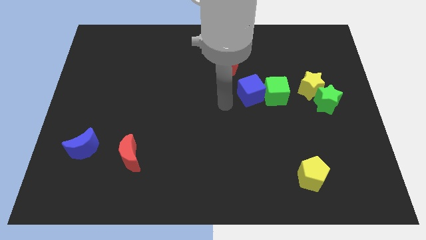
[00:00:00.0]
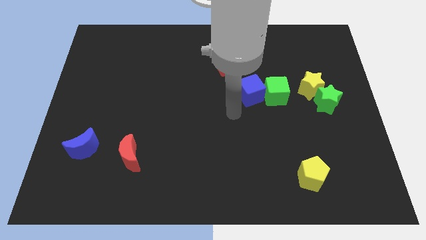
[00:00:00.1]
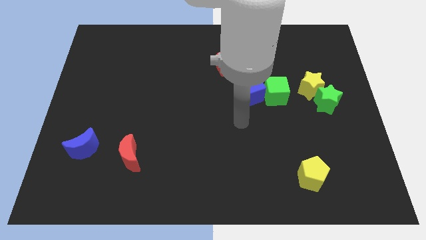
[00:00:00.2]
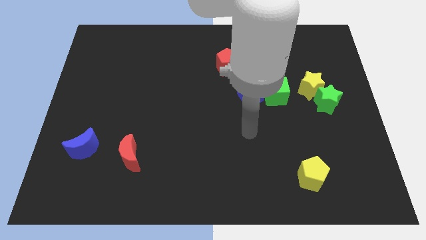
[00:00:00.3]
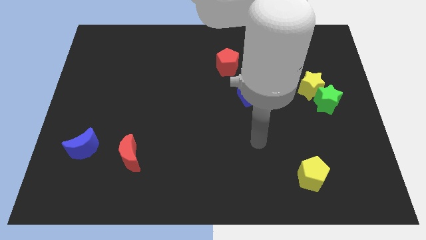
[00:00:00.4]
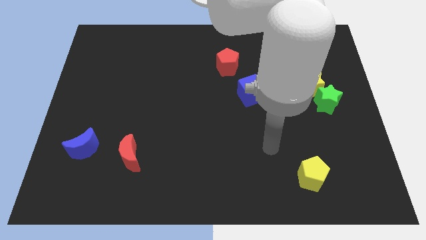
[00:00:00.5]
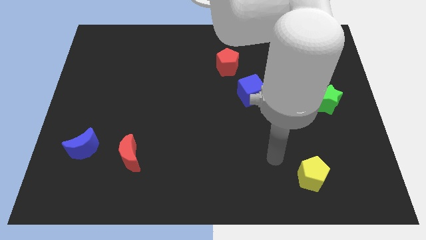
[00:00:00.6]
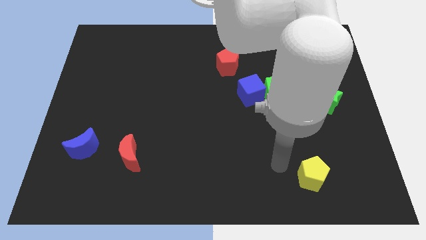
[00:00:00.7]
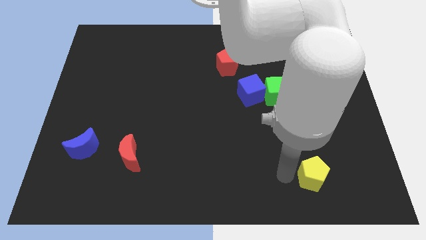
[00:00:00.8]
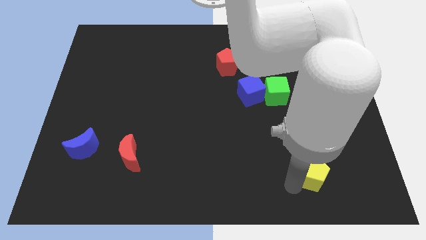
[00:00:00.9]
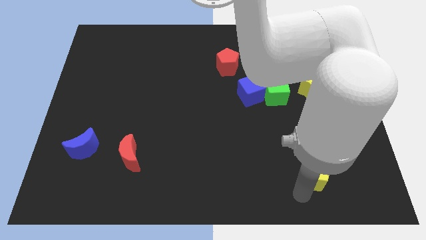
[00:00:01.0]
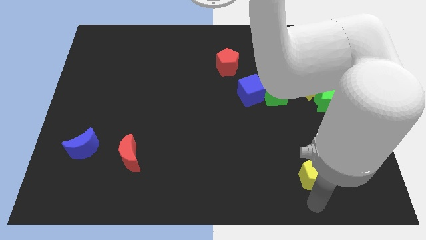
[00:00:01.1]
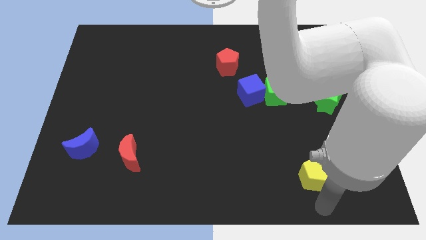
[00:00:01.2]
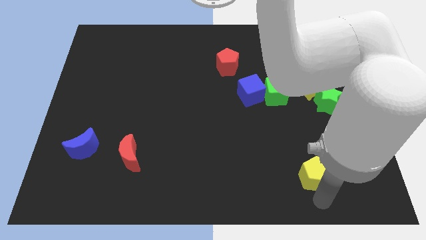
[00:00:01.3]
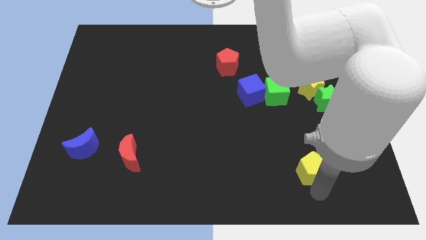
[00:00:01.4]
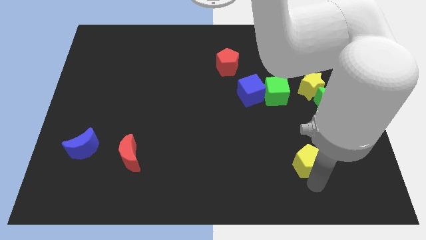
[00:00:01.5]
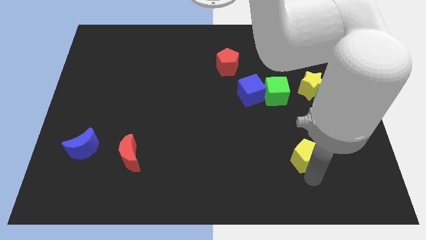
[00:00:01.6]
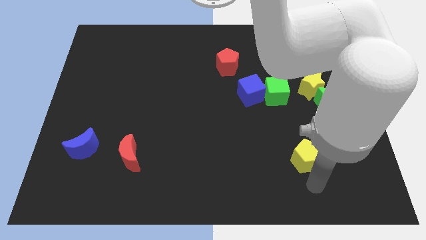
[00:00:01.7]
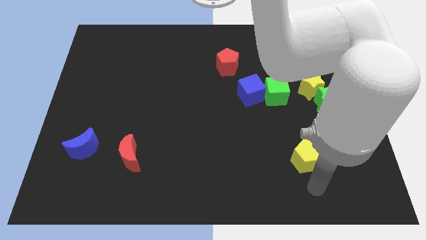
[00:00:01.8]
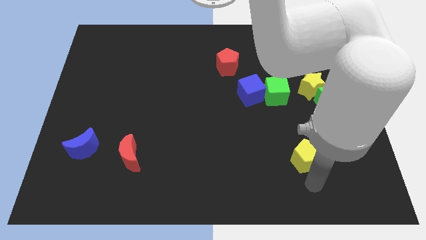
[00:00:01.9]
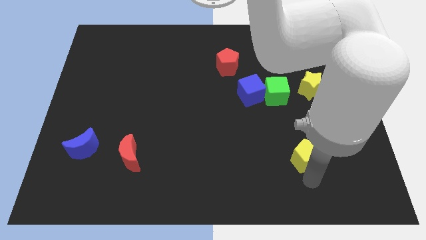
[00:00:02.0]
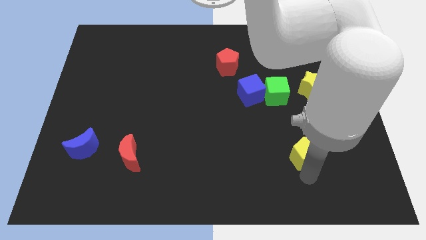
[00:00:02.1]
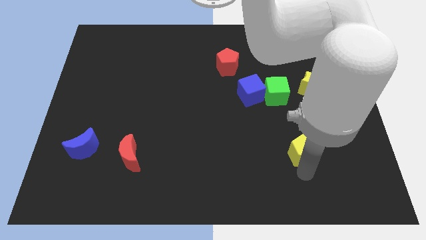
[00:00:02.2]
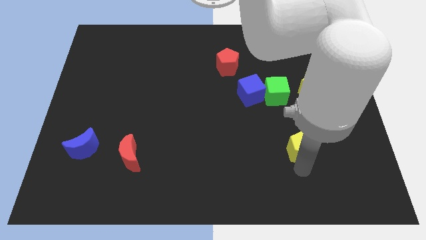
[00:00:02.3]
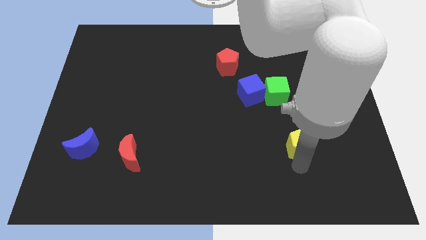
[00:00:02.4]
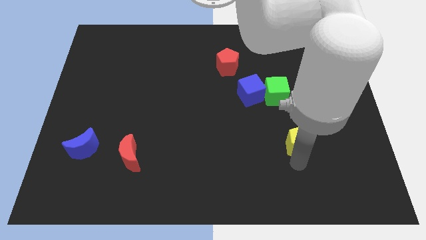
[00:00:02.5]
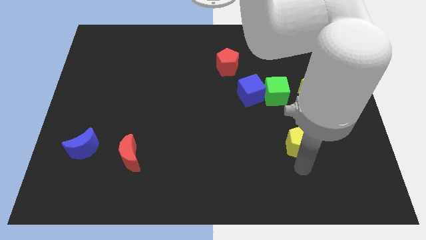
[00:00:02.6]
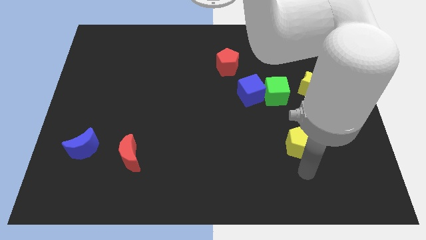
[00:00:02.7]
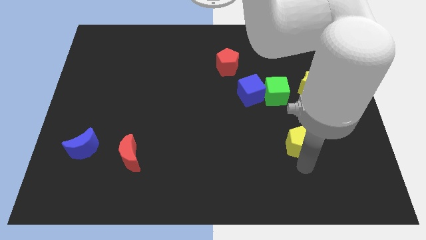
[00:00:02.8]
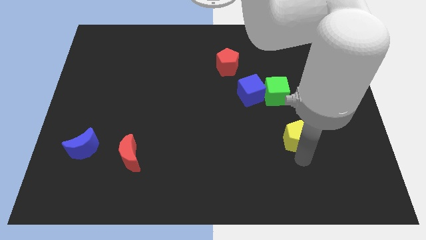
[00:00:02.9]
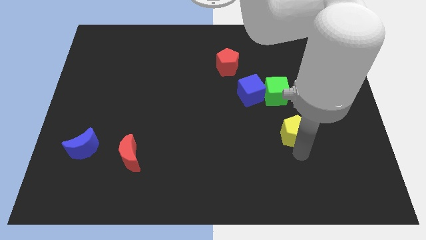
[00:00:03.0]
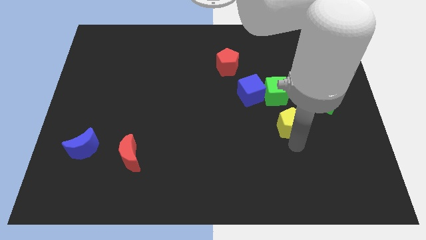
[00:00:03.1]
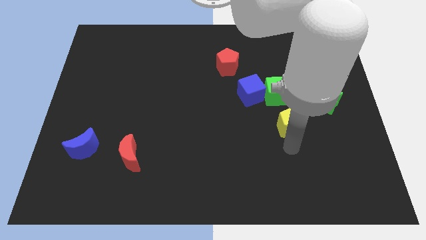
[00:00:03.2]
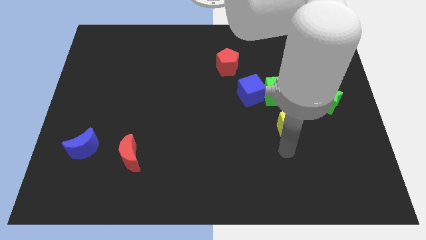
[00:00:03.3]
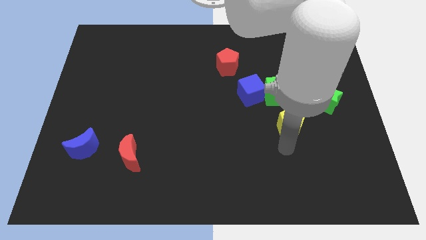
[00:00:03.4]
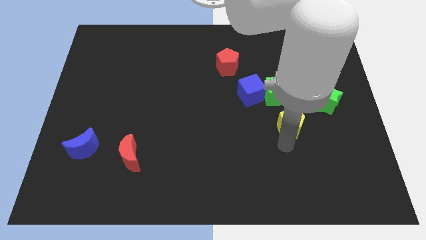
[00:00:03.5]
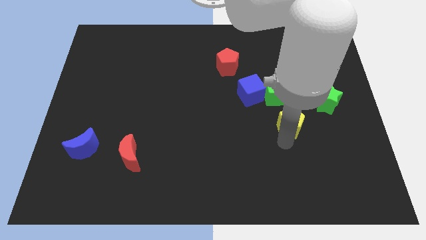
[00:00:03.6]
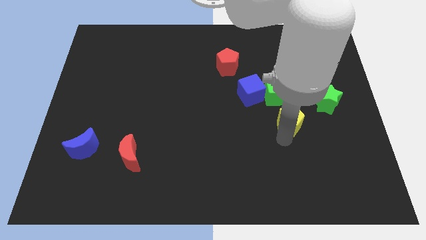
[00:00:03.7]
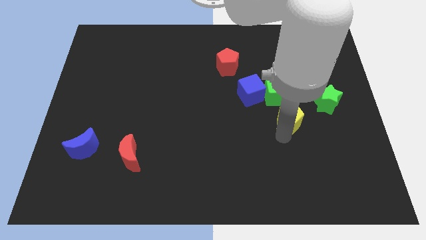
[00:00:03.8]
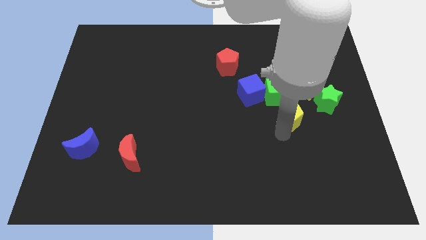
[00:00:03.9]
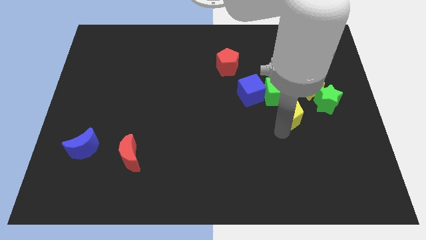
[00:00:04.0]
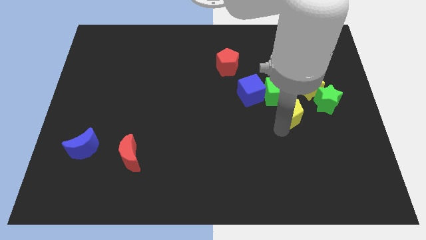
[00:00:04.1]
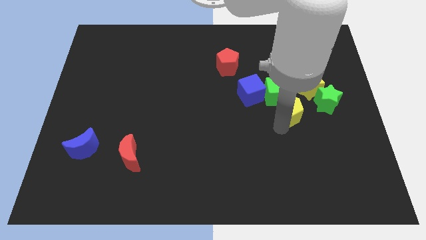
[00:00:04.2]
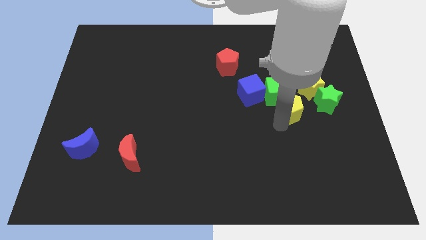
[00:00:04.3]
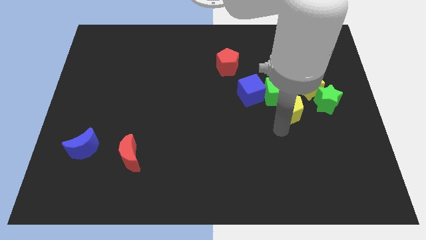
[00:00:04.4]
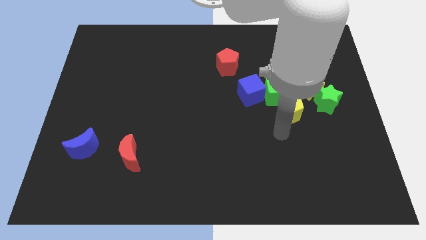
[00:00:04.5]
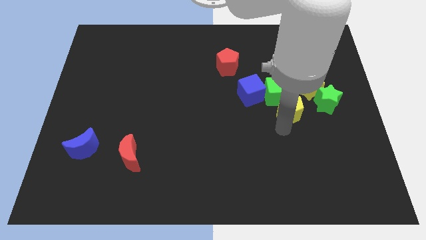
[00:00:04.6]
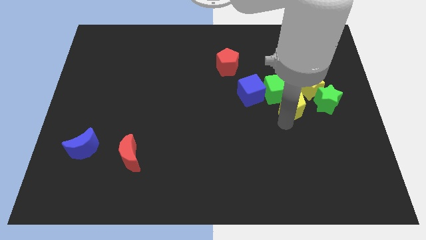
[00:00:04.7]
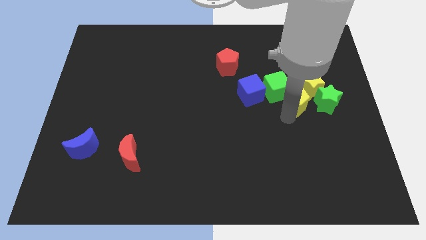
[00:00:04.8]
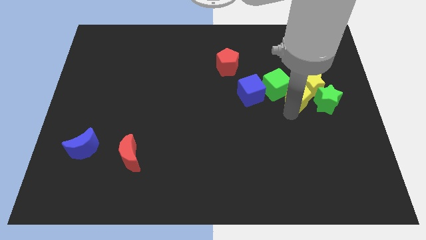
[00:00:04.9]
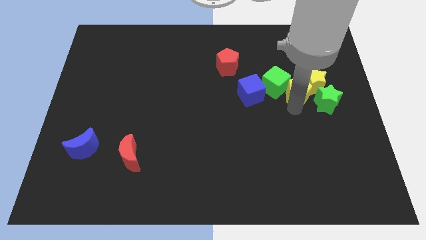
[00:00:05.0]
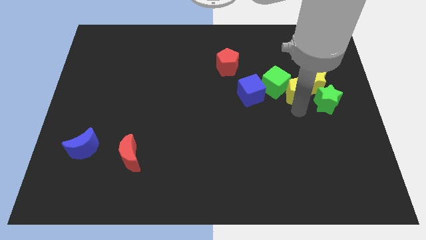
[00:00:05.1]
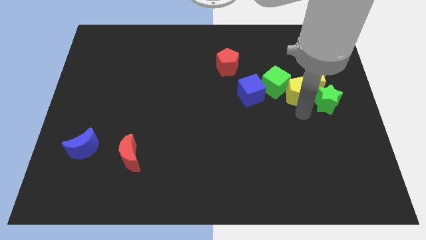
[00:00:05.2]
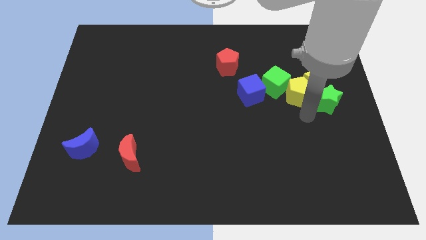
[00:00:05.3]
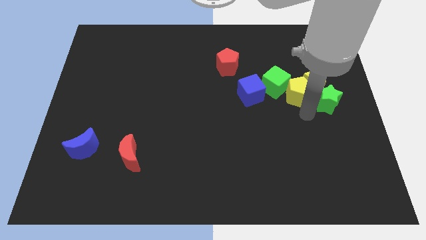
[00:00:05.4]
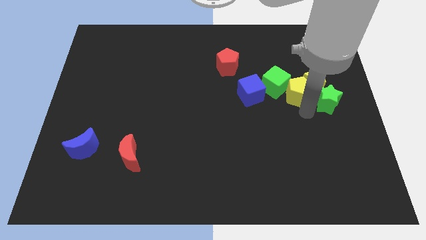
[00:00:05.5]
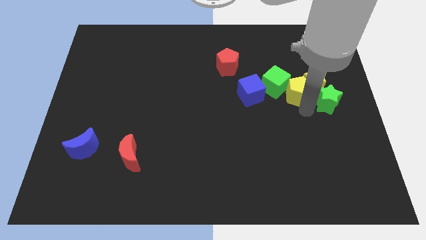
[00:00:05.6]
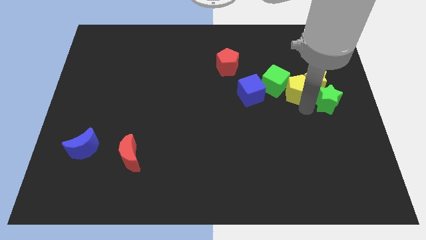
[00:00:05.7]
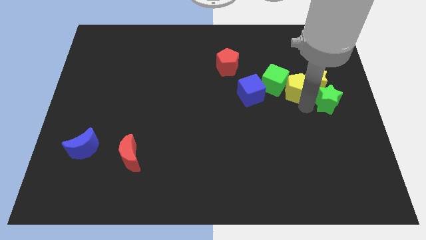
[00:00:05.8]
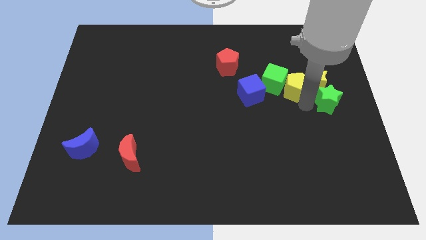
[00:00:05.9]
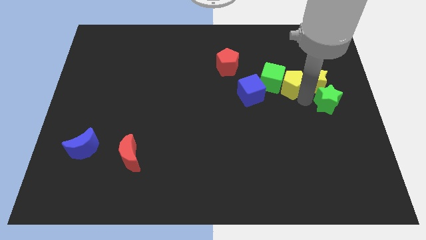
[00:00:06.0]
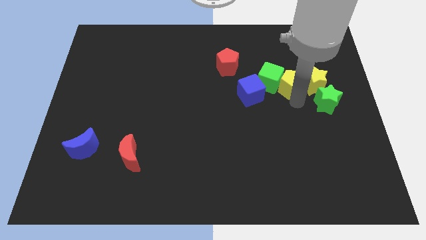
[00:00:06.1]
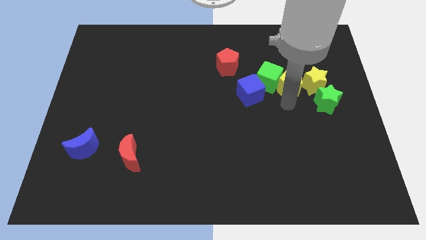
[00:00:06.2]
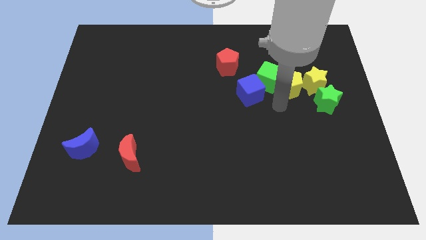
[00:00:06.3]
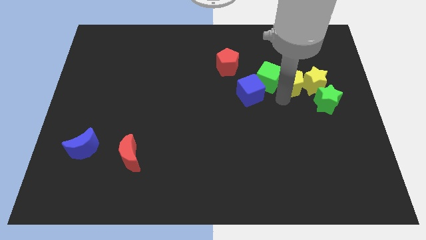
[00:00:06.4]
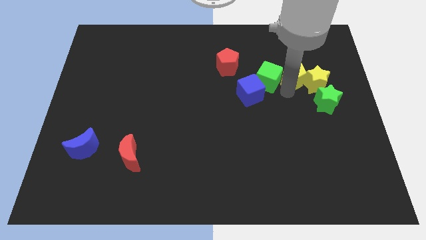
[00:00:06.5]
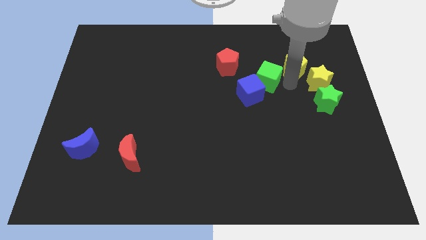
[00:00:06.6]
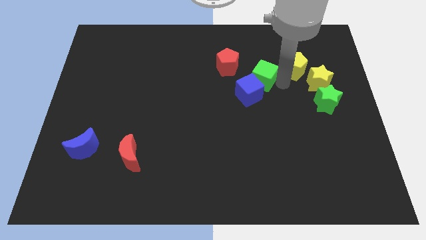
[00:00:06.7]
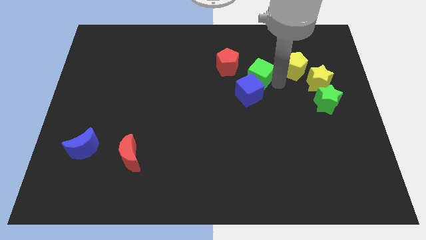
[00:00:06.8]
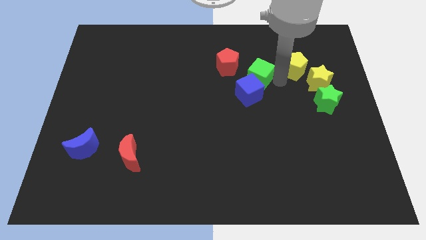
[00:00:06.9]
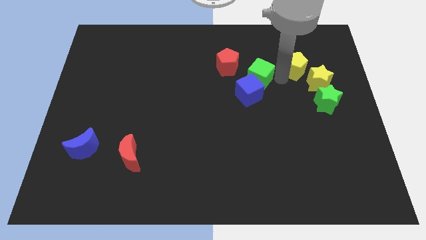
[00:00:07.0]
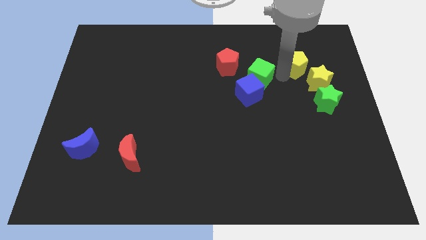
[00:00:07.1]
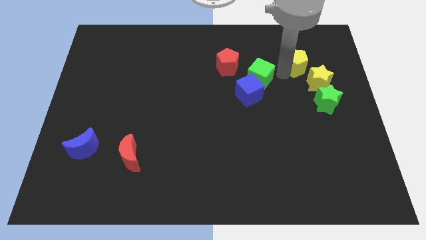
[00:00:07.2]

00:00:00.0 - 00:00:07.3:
put the yellow pentagon to the top of the yellow star
